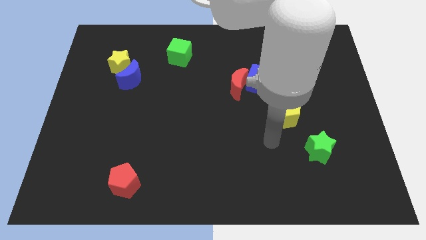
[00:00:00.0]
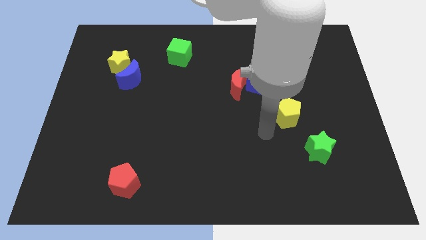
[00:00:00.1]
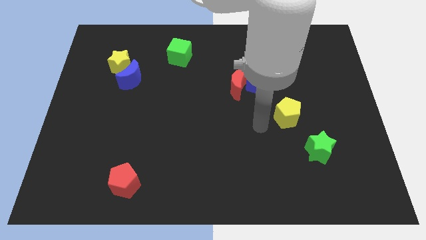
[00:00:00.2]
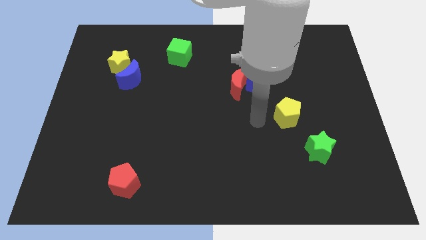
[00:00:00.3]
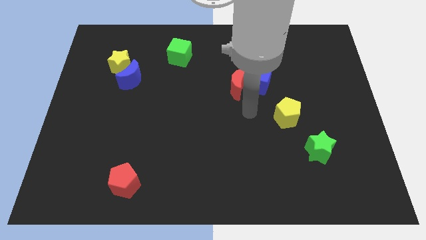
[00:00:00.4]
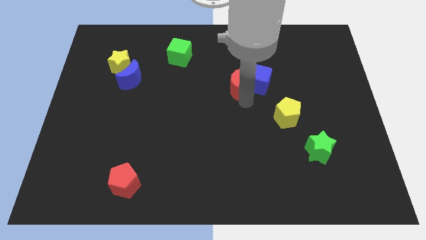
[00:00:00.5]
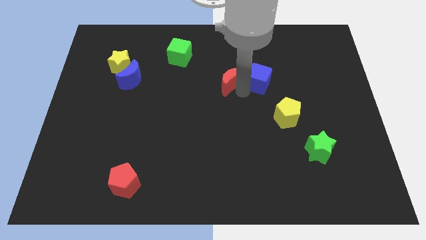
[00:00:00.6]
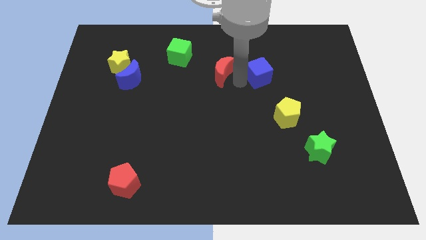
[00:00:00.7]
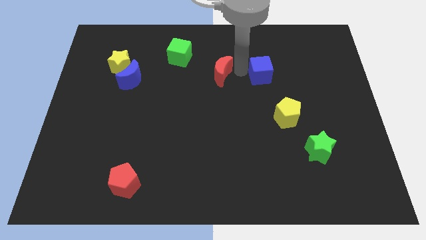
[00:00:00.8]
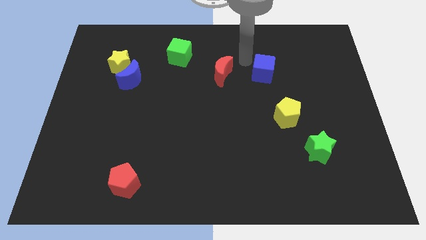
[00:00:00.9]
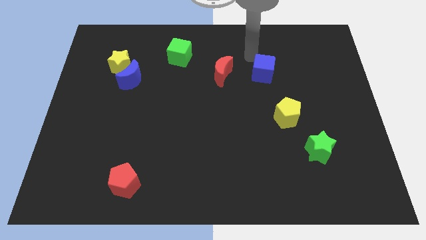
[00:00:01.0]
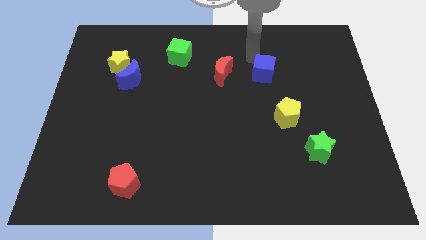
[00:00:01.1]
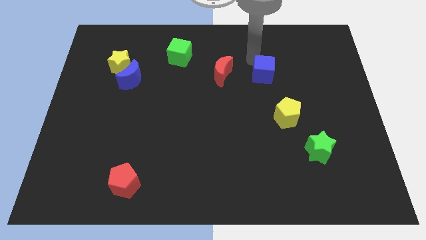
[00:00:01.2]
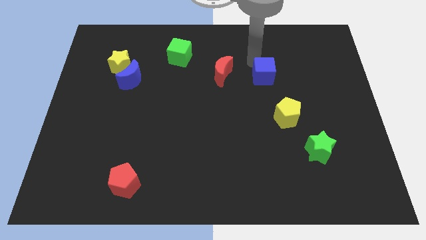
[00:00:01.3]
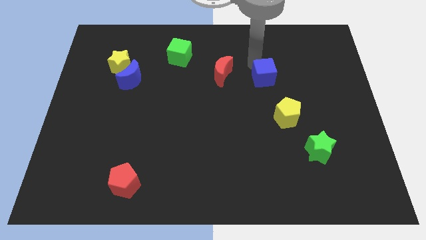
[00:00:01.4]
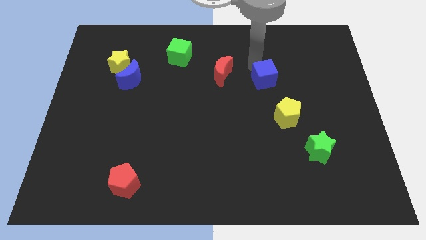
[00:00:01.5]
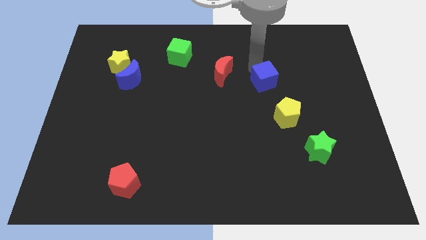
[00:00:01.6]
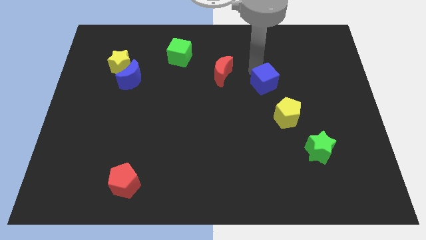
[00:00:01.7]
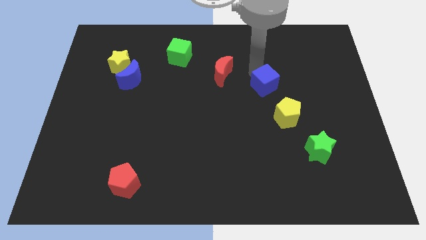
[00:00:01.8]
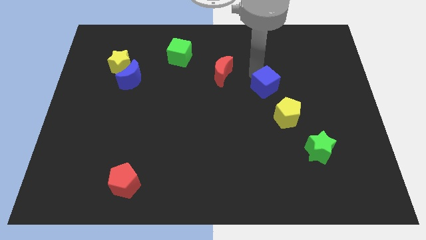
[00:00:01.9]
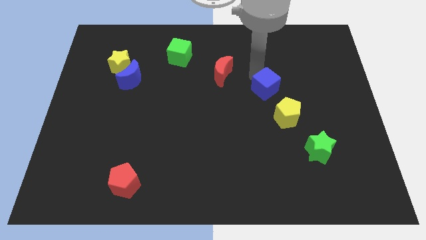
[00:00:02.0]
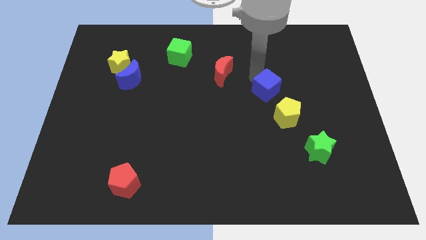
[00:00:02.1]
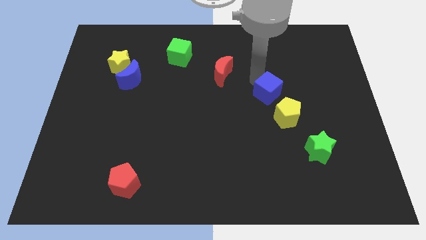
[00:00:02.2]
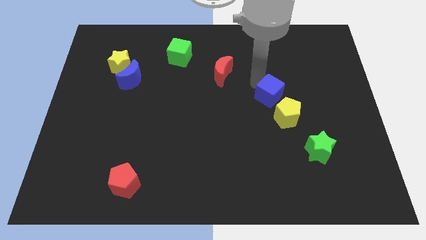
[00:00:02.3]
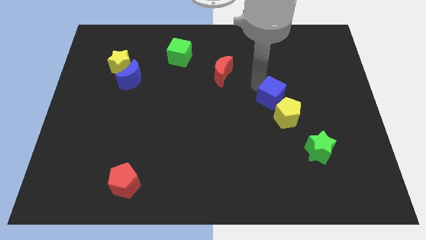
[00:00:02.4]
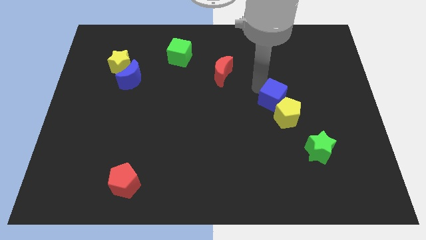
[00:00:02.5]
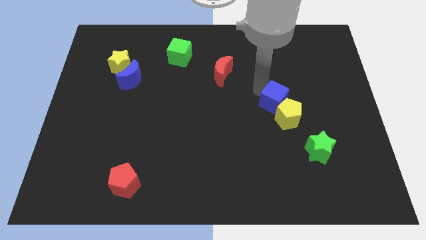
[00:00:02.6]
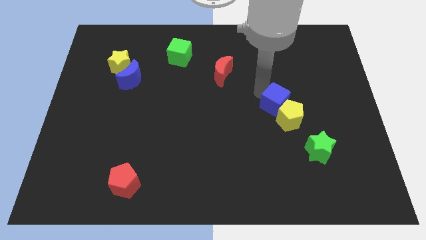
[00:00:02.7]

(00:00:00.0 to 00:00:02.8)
move the blue cube somewhat down and right diagonally

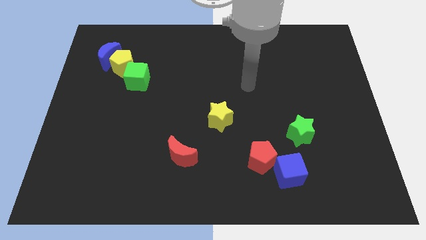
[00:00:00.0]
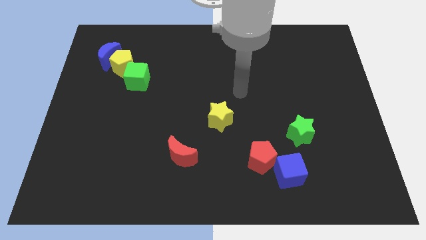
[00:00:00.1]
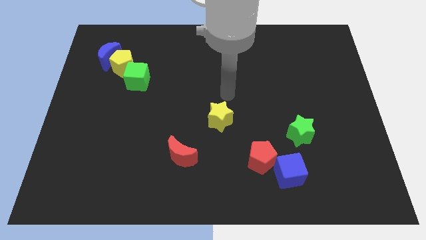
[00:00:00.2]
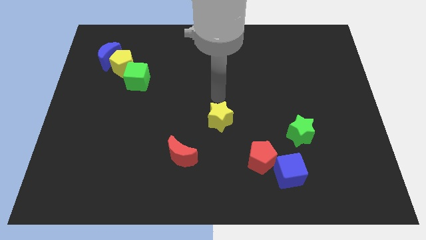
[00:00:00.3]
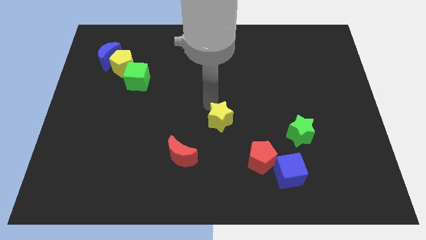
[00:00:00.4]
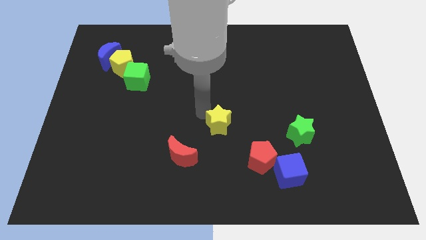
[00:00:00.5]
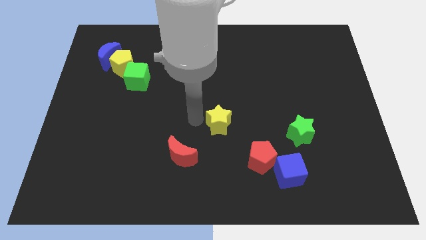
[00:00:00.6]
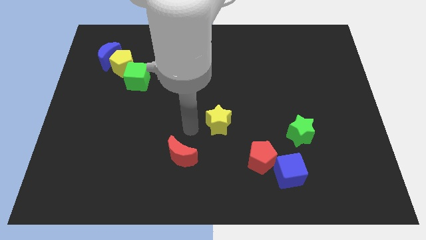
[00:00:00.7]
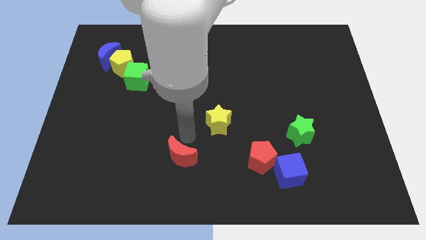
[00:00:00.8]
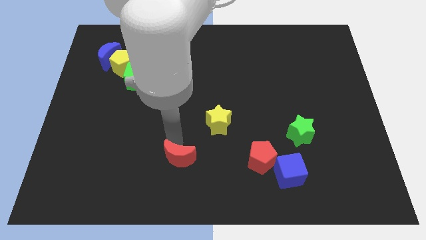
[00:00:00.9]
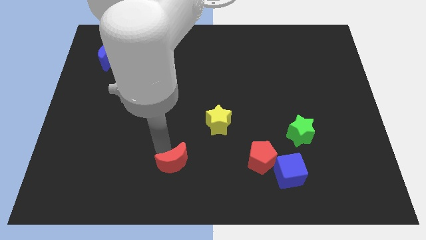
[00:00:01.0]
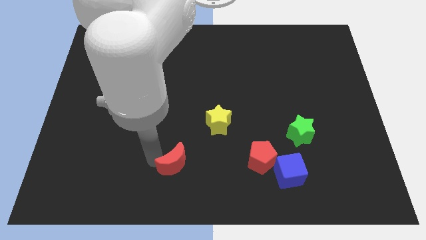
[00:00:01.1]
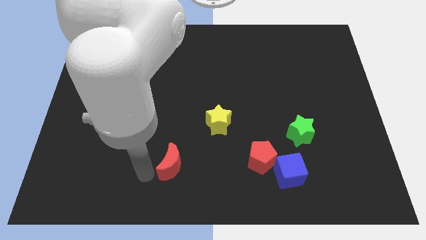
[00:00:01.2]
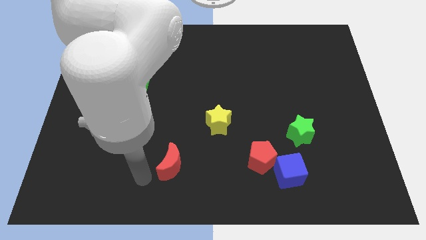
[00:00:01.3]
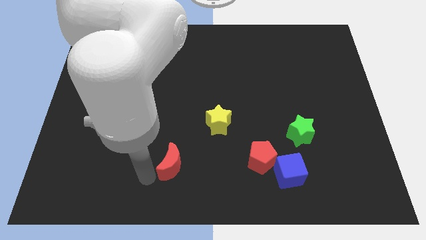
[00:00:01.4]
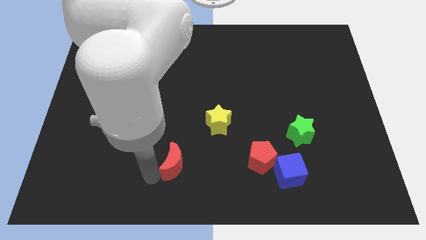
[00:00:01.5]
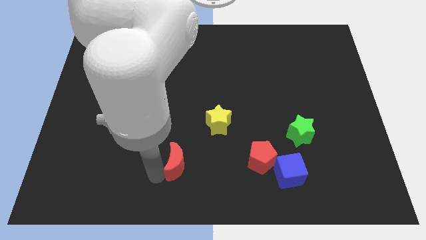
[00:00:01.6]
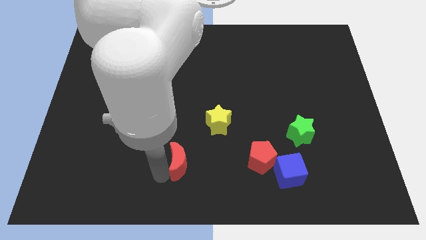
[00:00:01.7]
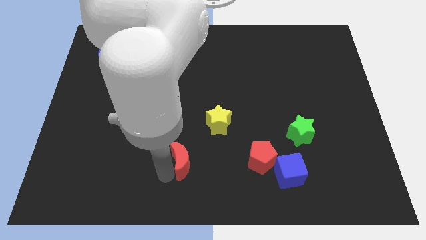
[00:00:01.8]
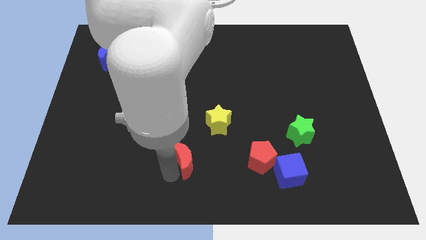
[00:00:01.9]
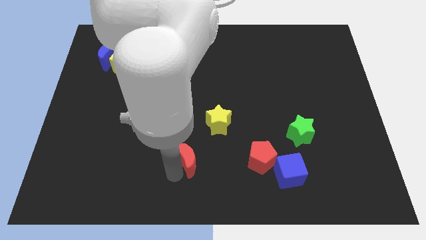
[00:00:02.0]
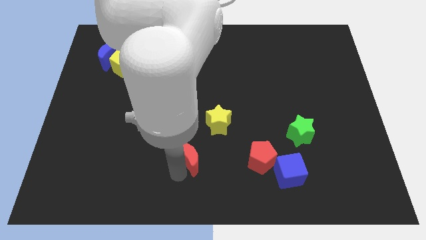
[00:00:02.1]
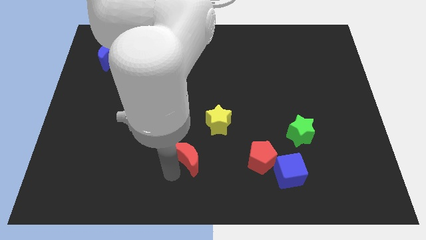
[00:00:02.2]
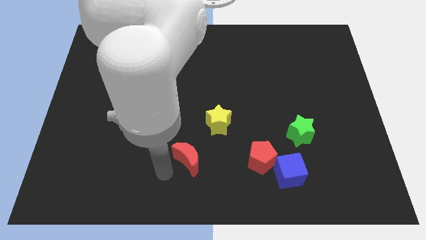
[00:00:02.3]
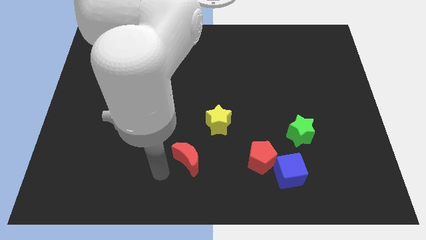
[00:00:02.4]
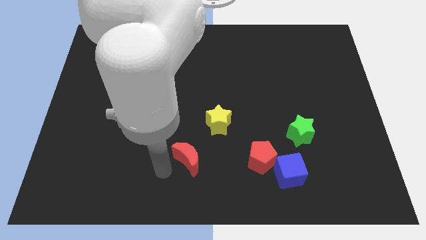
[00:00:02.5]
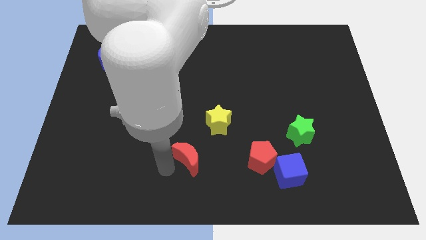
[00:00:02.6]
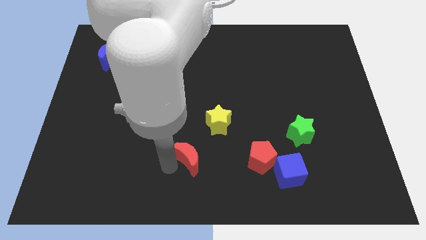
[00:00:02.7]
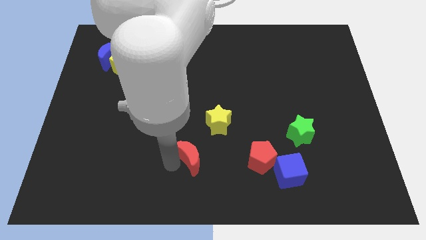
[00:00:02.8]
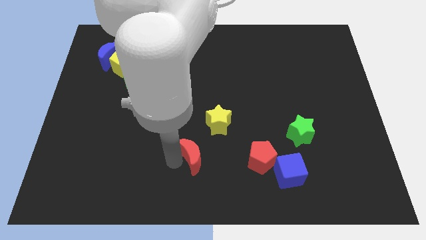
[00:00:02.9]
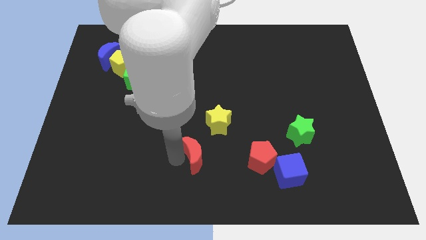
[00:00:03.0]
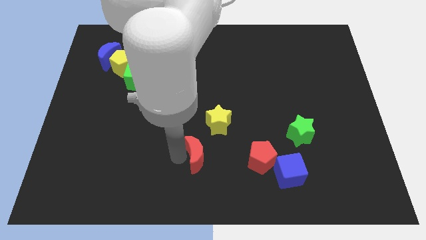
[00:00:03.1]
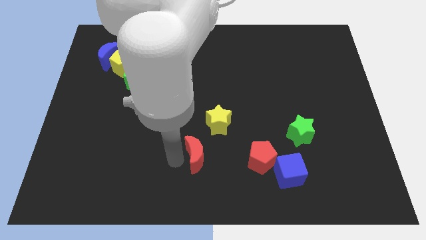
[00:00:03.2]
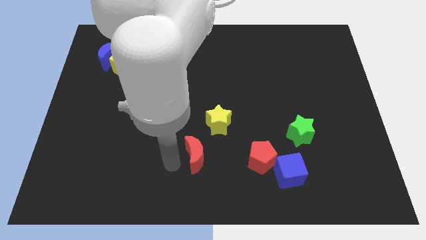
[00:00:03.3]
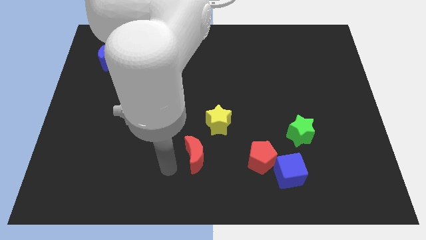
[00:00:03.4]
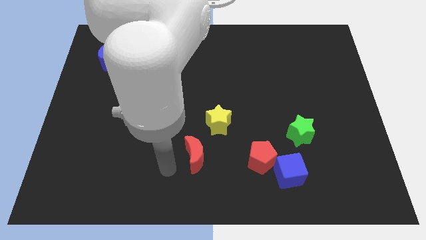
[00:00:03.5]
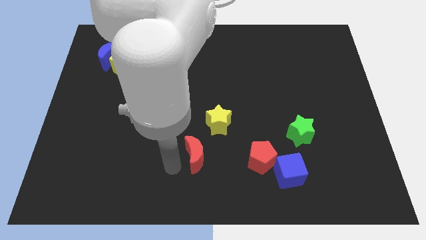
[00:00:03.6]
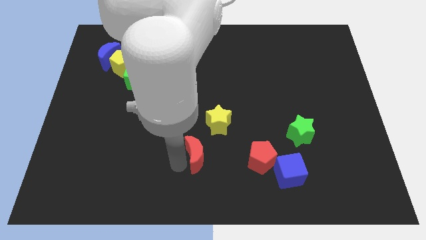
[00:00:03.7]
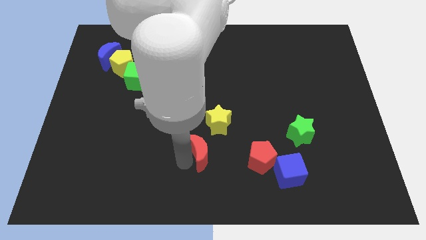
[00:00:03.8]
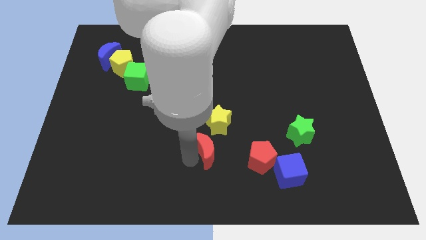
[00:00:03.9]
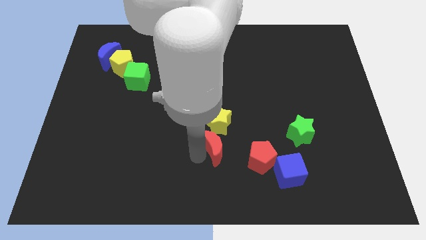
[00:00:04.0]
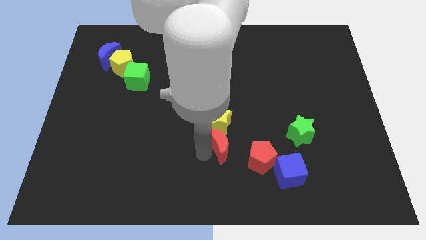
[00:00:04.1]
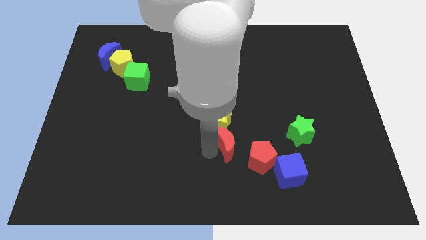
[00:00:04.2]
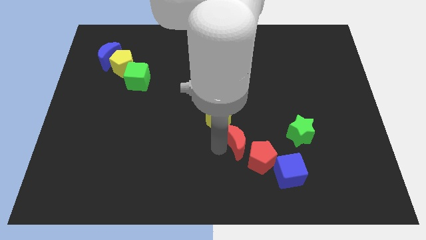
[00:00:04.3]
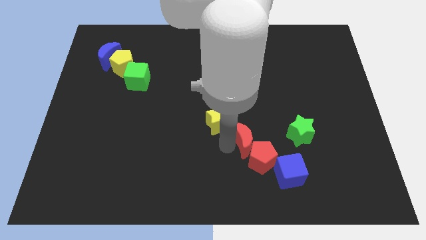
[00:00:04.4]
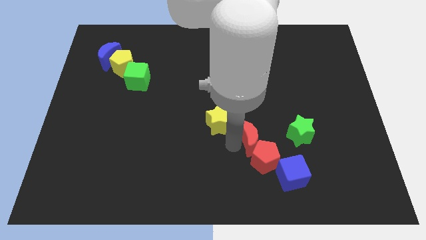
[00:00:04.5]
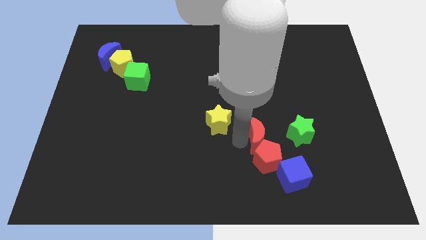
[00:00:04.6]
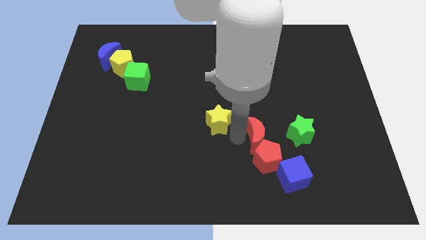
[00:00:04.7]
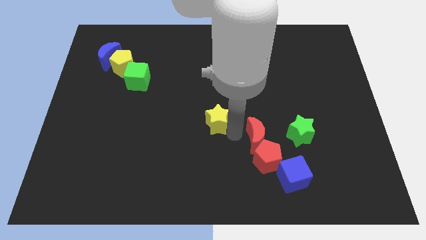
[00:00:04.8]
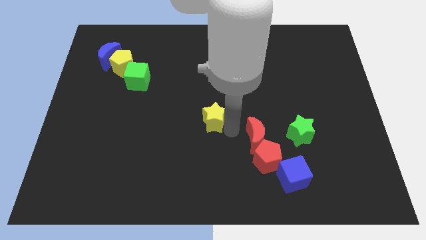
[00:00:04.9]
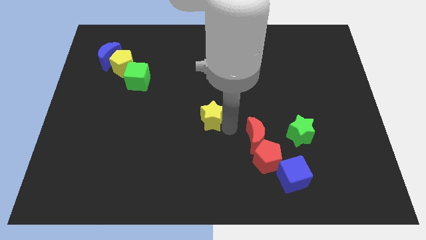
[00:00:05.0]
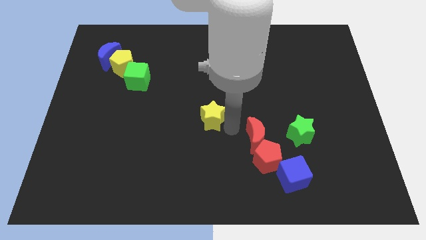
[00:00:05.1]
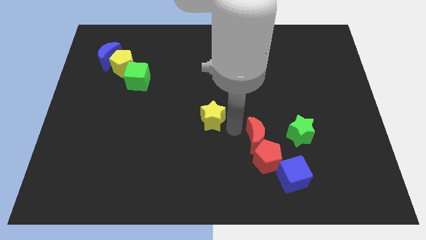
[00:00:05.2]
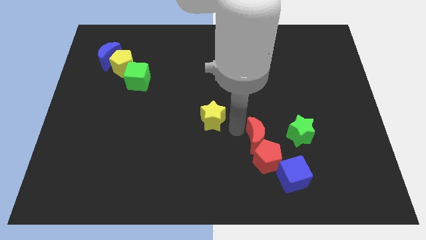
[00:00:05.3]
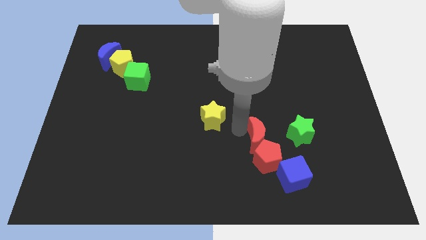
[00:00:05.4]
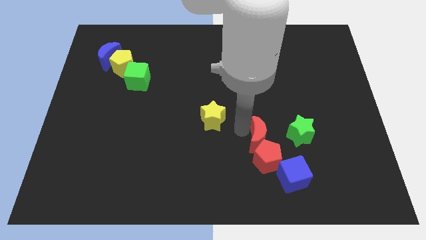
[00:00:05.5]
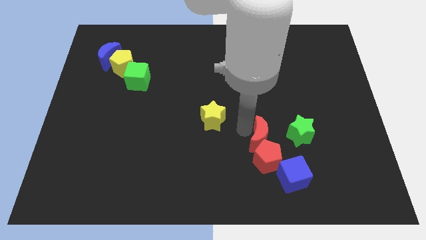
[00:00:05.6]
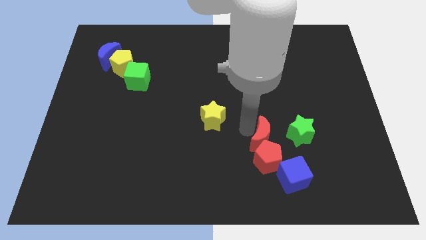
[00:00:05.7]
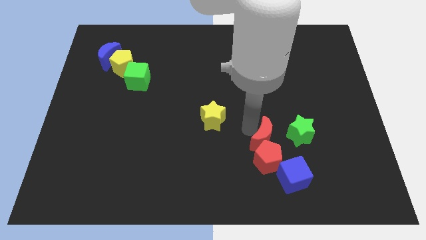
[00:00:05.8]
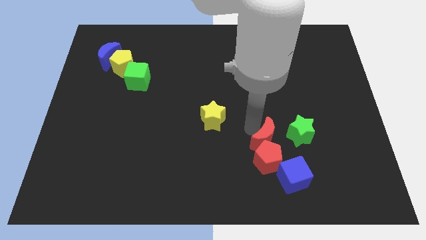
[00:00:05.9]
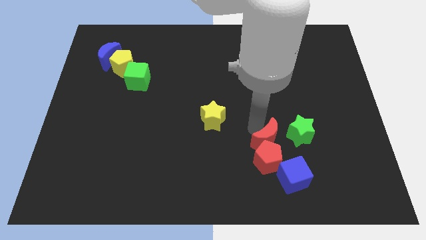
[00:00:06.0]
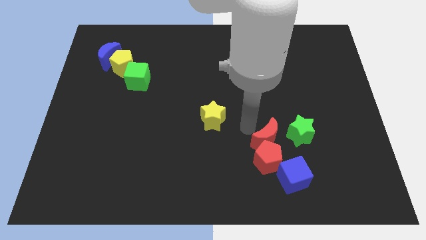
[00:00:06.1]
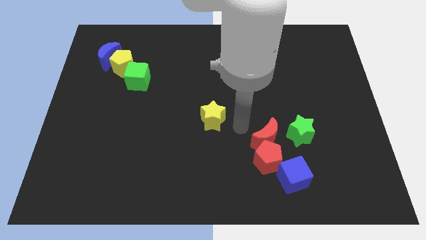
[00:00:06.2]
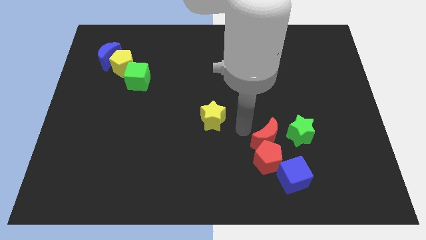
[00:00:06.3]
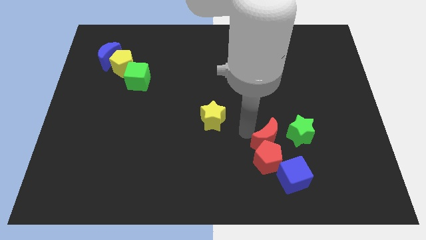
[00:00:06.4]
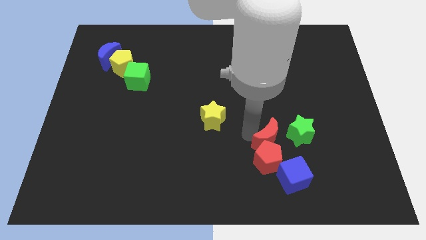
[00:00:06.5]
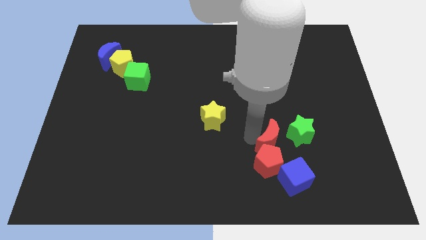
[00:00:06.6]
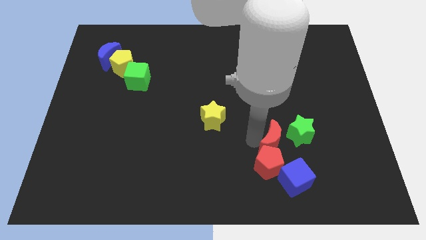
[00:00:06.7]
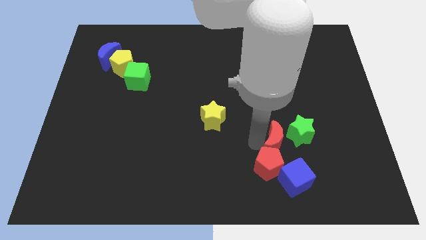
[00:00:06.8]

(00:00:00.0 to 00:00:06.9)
slide the red moon right
